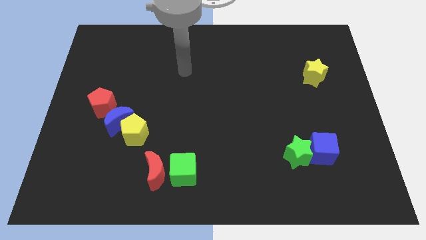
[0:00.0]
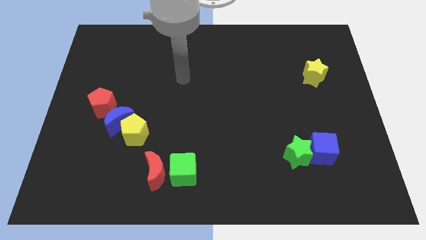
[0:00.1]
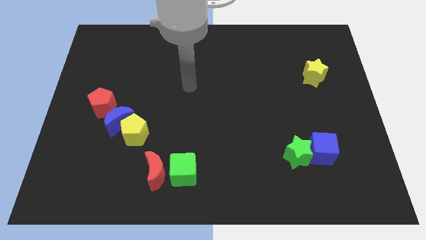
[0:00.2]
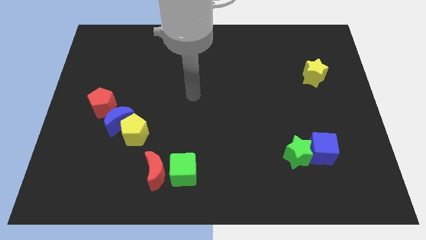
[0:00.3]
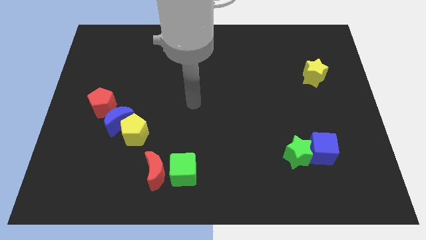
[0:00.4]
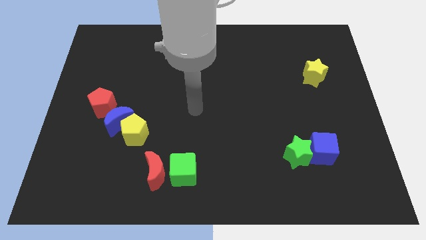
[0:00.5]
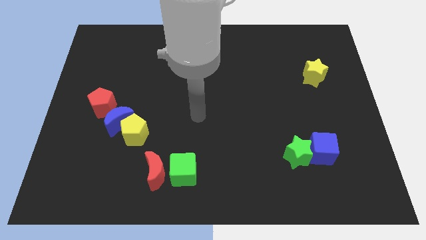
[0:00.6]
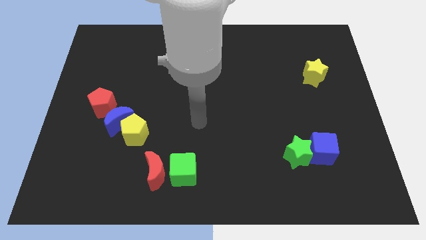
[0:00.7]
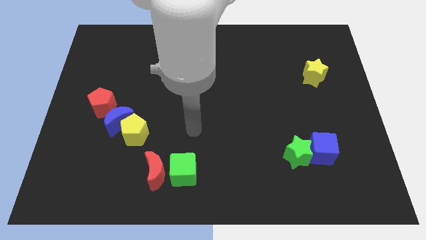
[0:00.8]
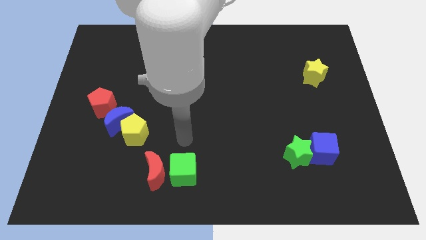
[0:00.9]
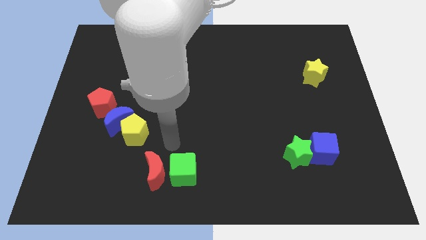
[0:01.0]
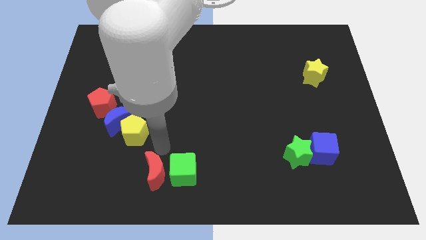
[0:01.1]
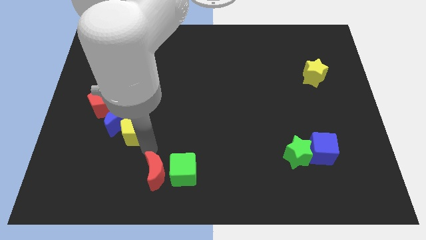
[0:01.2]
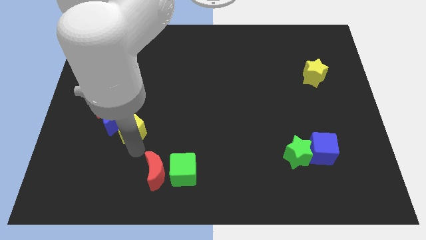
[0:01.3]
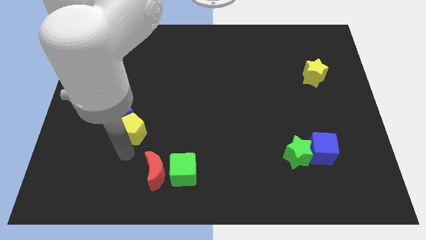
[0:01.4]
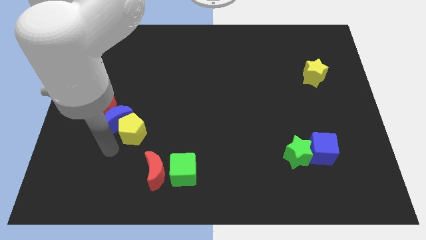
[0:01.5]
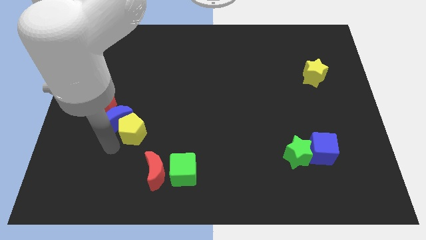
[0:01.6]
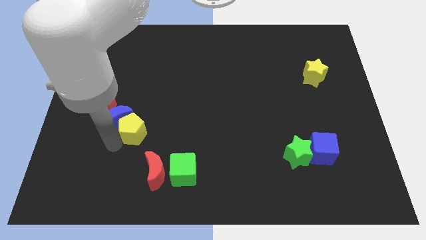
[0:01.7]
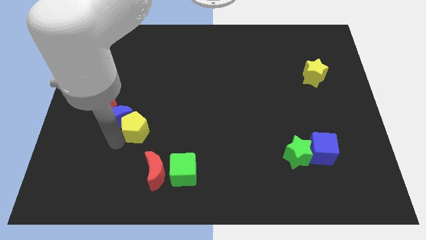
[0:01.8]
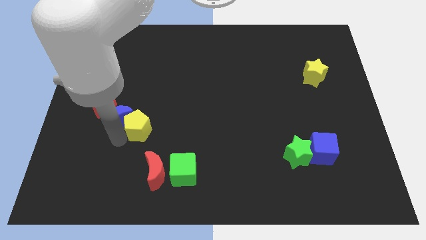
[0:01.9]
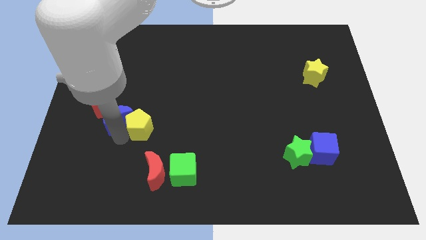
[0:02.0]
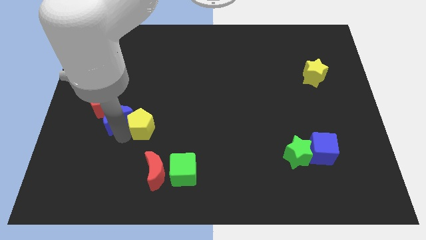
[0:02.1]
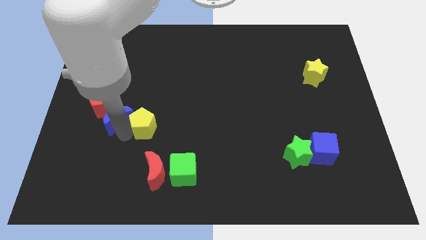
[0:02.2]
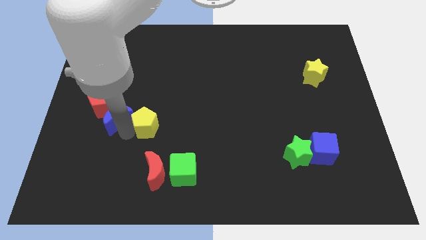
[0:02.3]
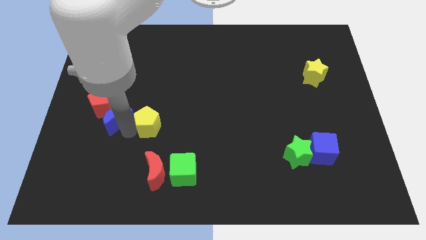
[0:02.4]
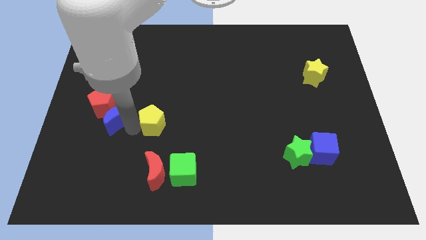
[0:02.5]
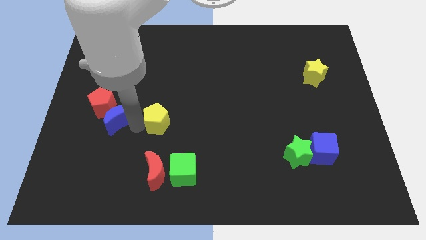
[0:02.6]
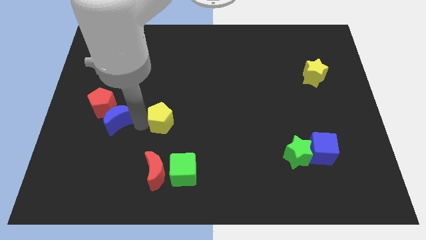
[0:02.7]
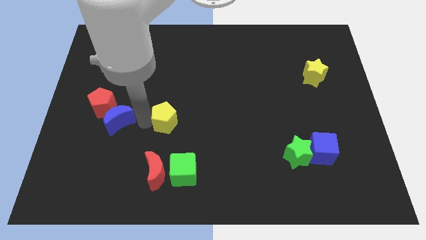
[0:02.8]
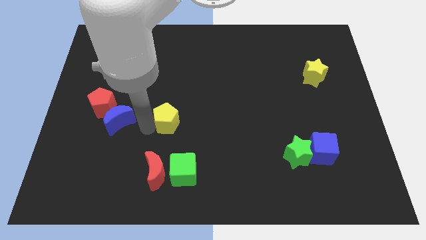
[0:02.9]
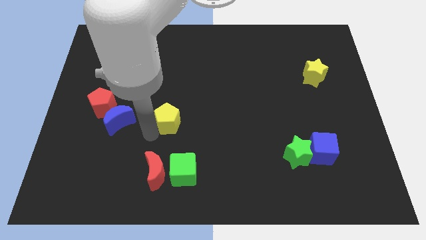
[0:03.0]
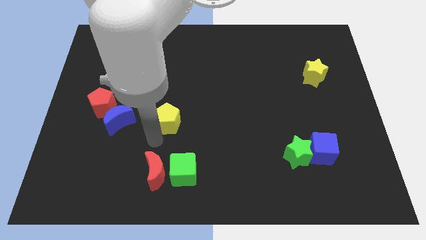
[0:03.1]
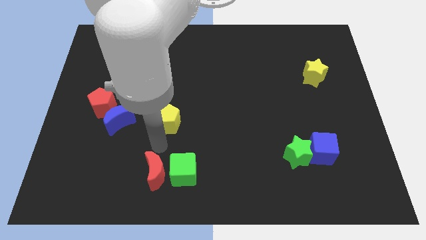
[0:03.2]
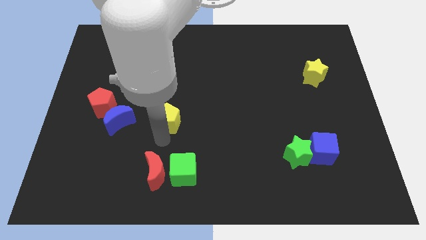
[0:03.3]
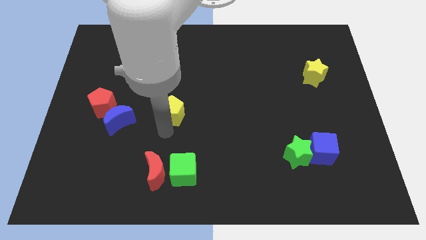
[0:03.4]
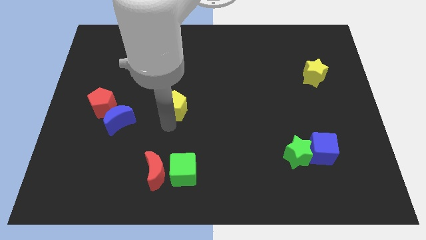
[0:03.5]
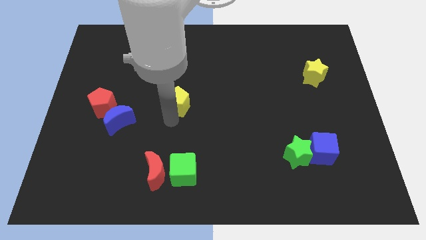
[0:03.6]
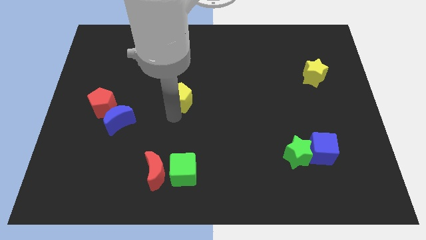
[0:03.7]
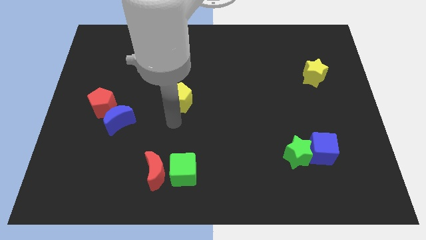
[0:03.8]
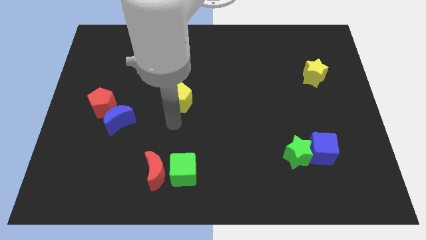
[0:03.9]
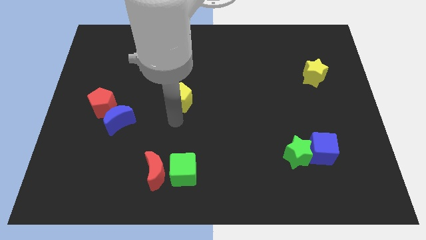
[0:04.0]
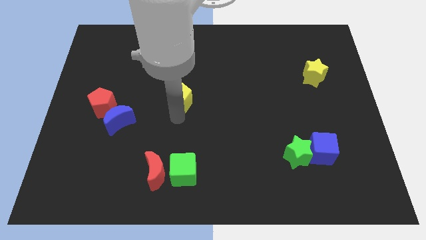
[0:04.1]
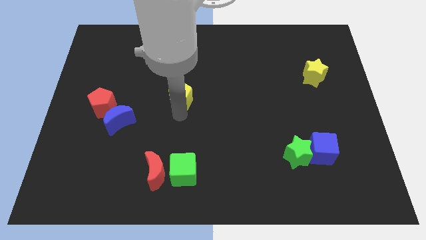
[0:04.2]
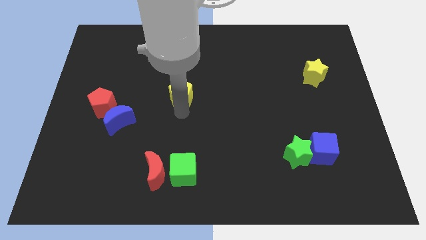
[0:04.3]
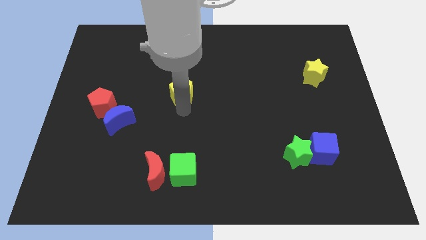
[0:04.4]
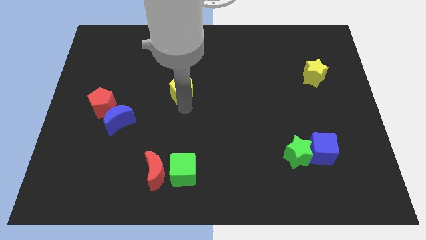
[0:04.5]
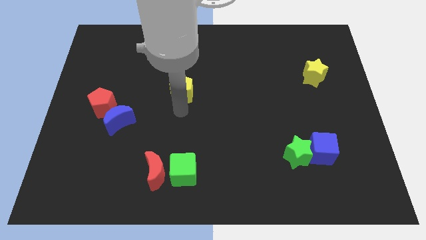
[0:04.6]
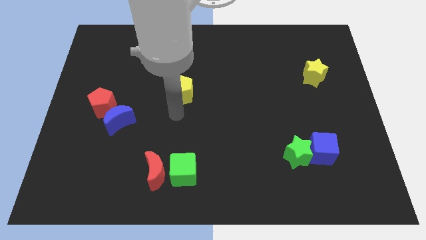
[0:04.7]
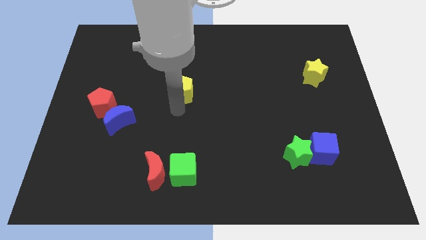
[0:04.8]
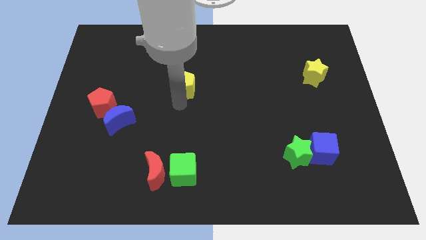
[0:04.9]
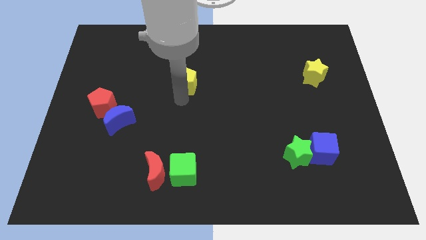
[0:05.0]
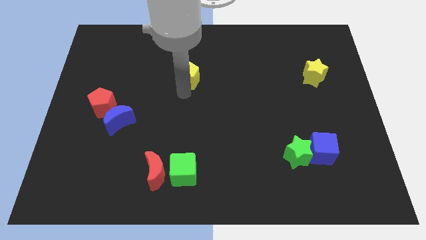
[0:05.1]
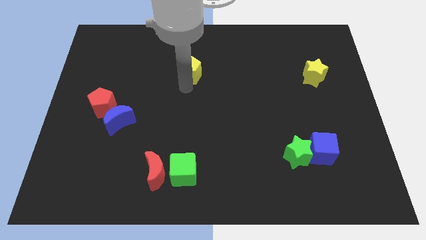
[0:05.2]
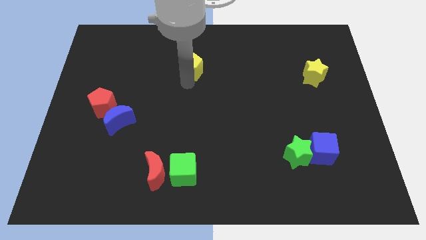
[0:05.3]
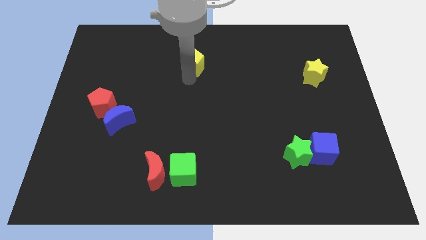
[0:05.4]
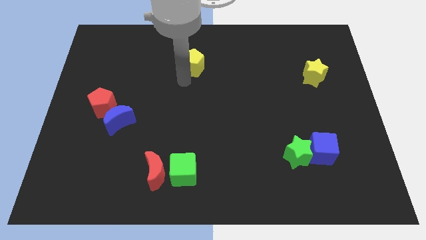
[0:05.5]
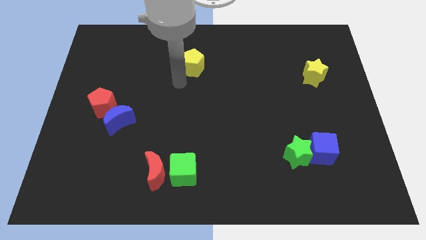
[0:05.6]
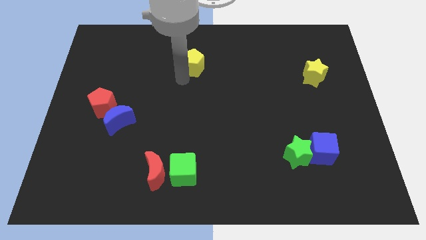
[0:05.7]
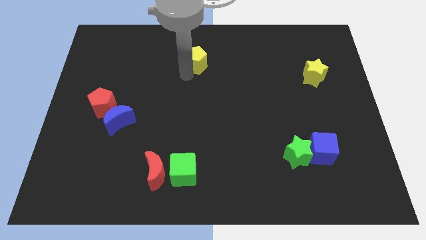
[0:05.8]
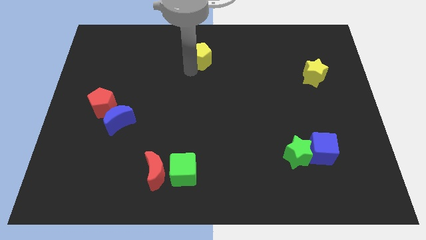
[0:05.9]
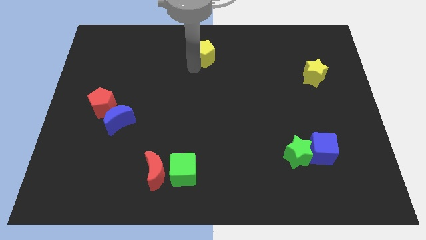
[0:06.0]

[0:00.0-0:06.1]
slide the yellow pentagon to the top side
